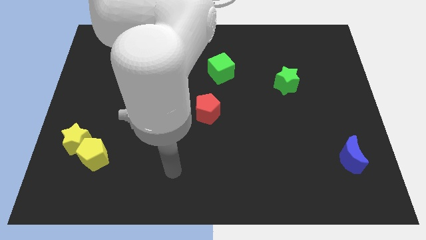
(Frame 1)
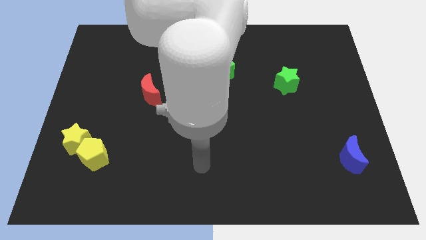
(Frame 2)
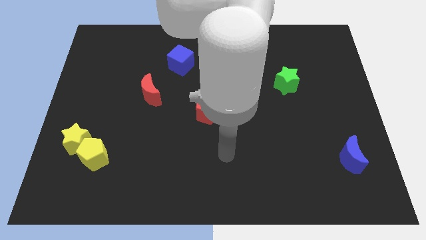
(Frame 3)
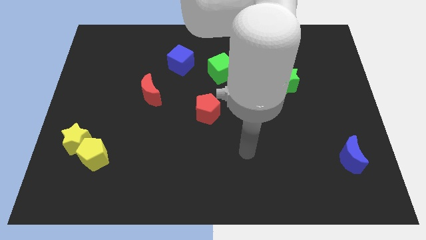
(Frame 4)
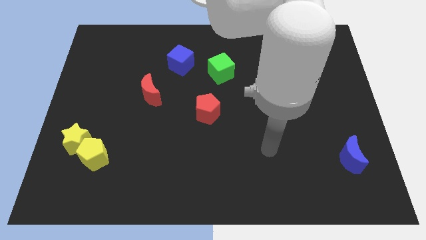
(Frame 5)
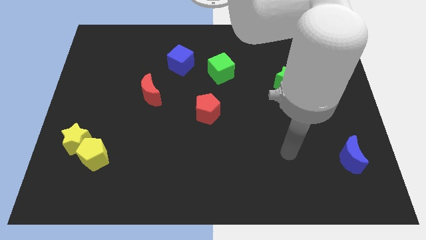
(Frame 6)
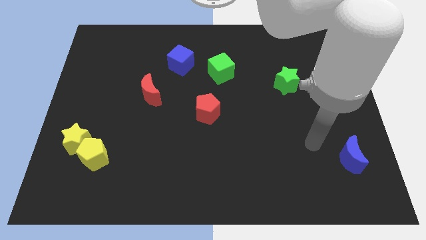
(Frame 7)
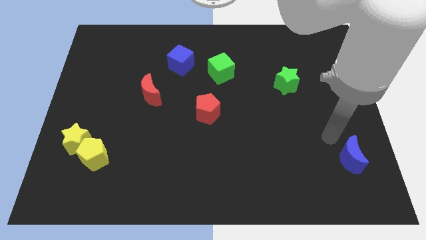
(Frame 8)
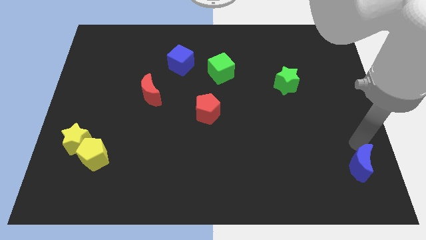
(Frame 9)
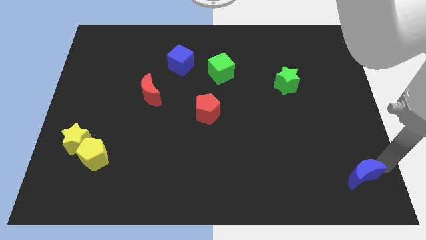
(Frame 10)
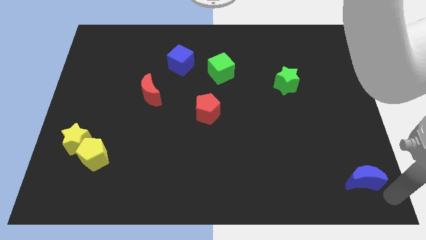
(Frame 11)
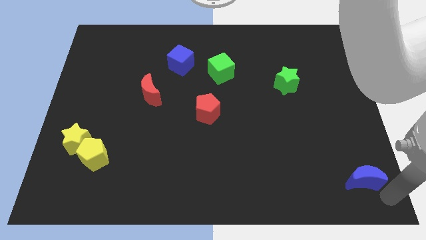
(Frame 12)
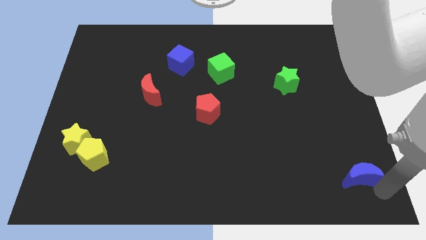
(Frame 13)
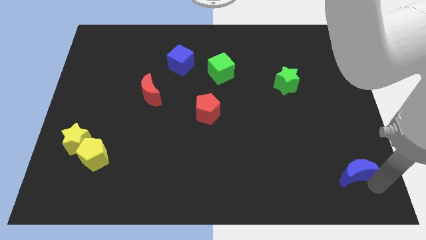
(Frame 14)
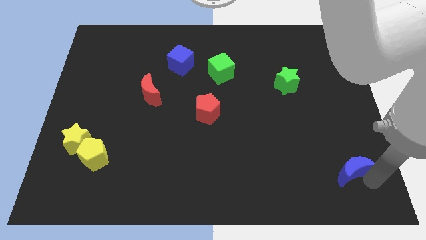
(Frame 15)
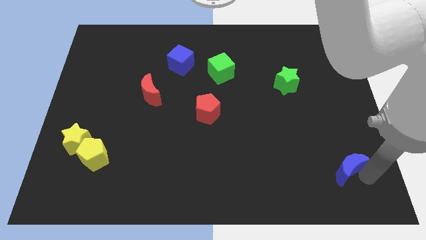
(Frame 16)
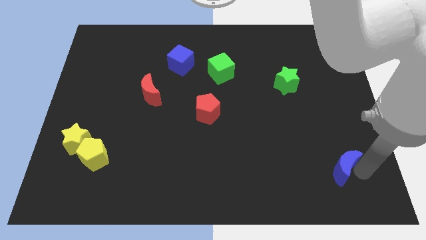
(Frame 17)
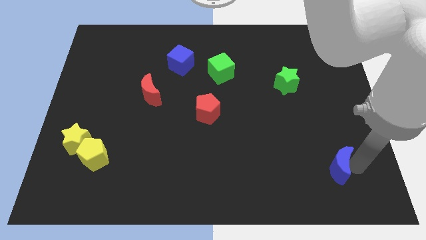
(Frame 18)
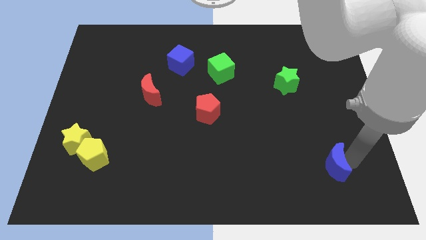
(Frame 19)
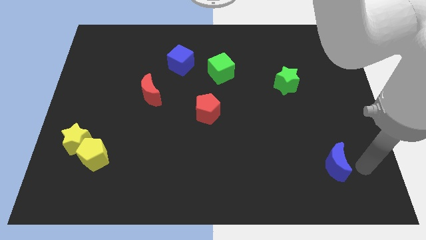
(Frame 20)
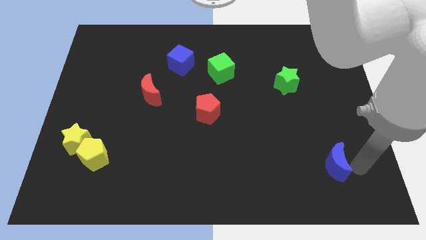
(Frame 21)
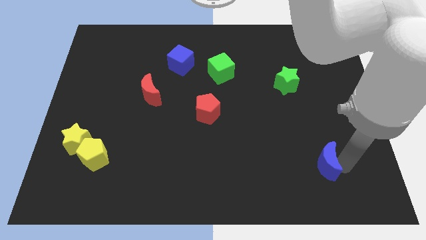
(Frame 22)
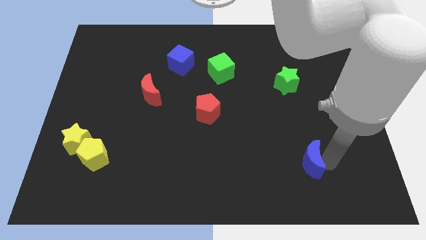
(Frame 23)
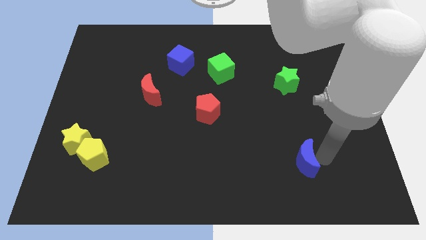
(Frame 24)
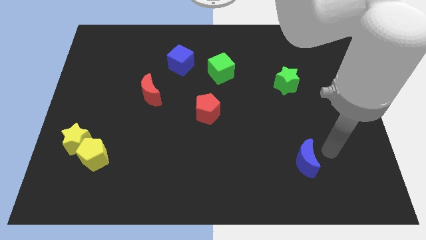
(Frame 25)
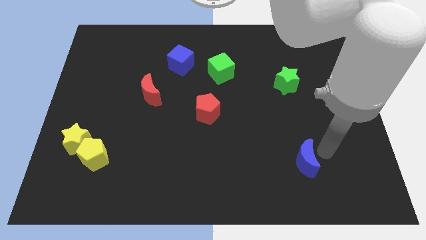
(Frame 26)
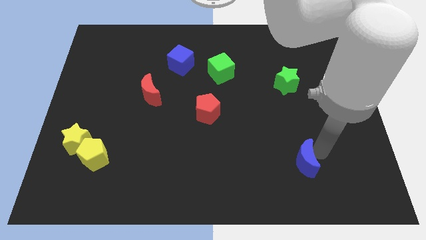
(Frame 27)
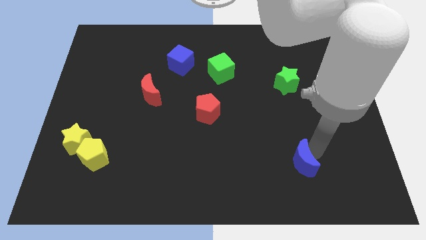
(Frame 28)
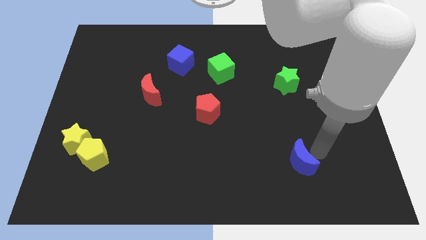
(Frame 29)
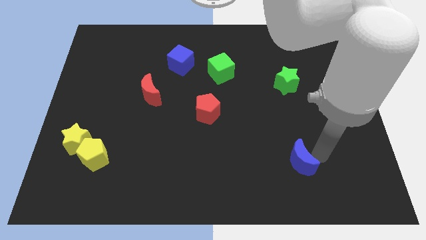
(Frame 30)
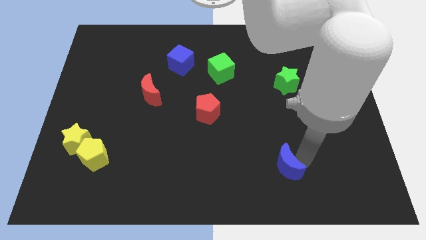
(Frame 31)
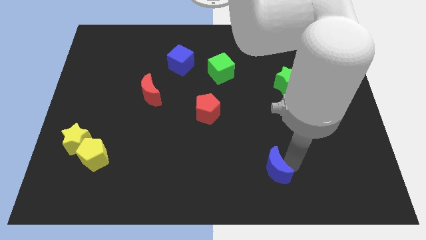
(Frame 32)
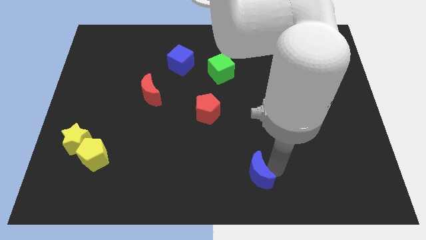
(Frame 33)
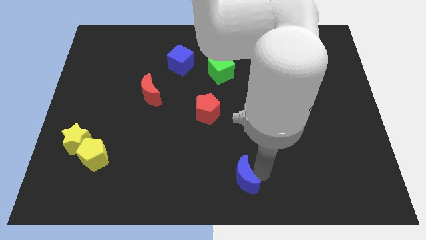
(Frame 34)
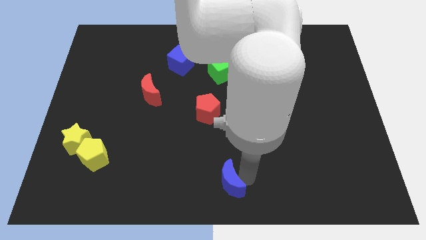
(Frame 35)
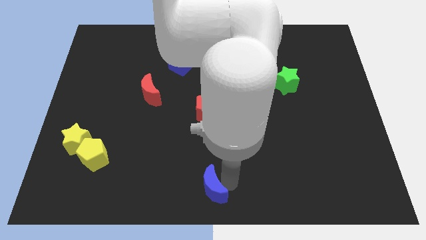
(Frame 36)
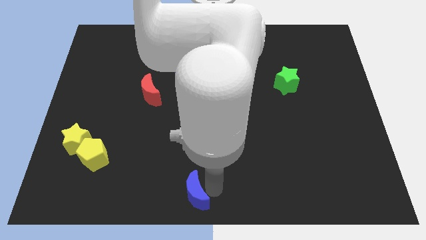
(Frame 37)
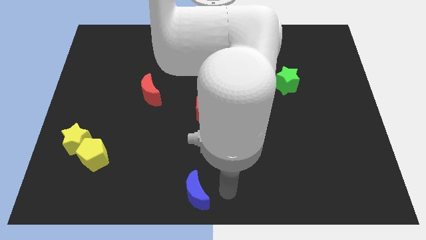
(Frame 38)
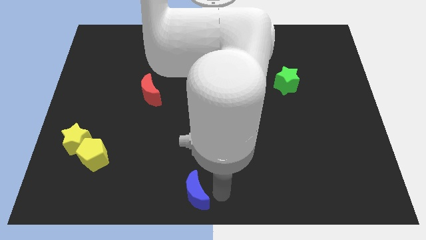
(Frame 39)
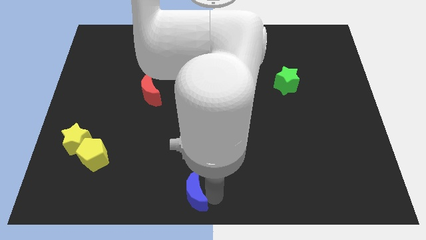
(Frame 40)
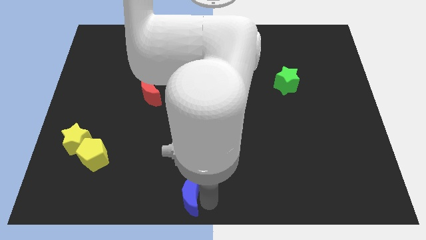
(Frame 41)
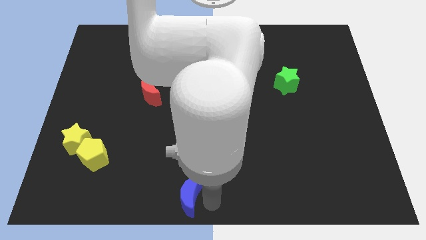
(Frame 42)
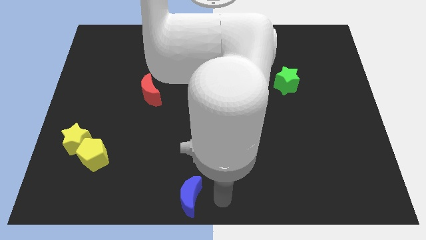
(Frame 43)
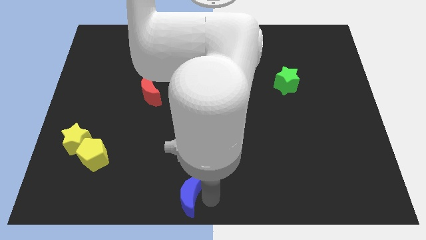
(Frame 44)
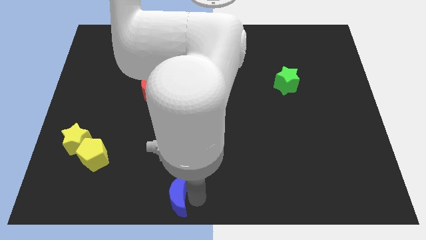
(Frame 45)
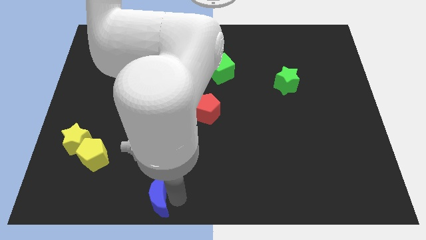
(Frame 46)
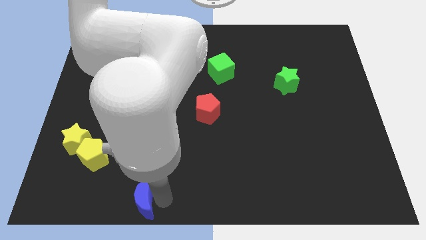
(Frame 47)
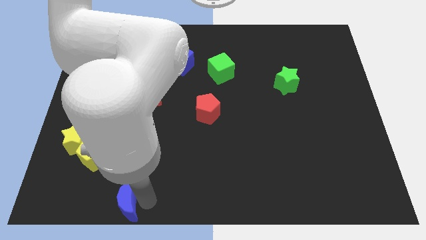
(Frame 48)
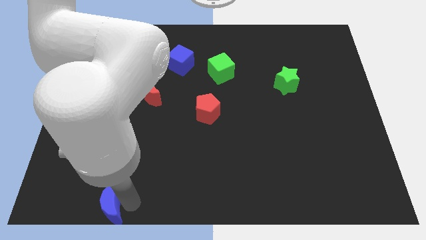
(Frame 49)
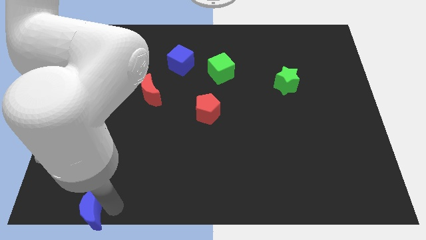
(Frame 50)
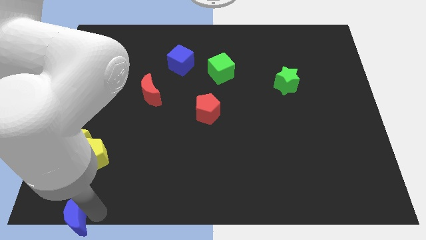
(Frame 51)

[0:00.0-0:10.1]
push the blue moon to the bottom left

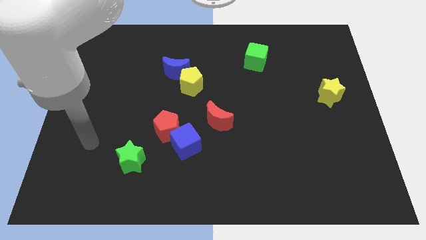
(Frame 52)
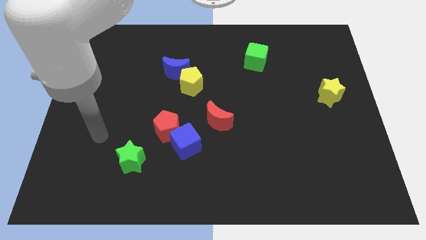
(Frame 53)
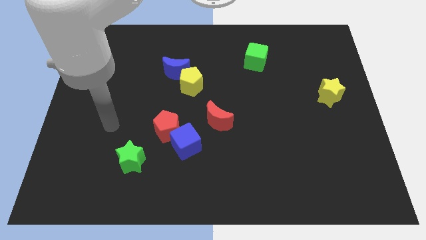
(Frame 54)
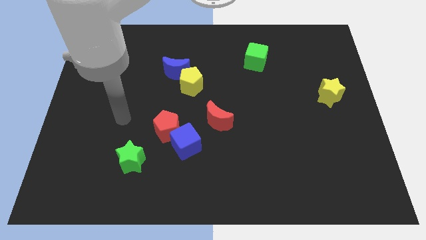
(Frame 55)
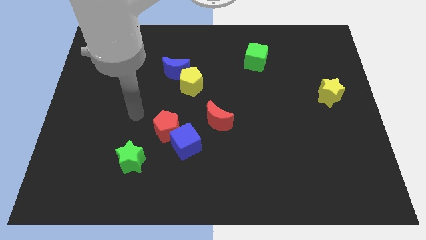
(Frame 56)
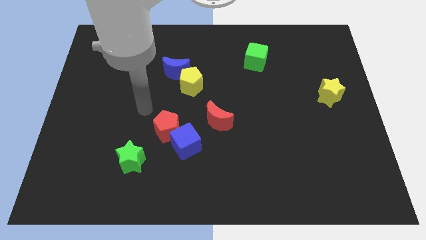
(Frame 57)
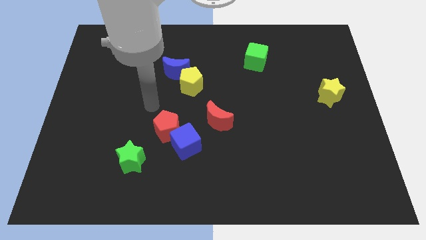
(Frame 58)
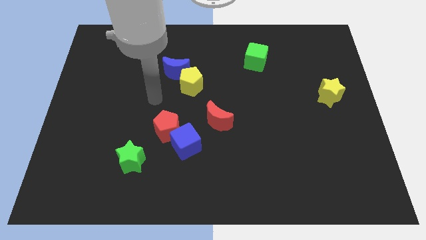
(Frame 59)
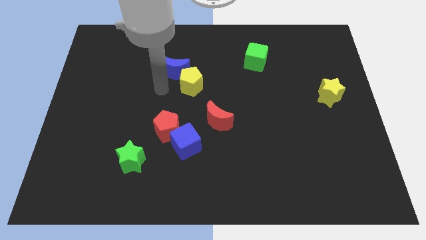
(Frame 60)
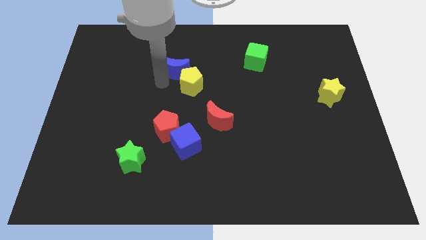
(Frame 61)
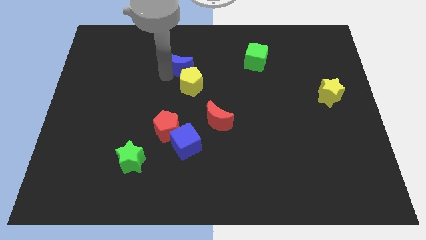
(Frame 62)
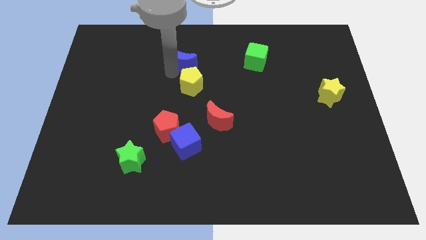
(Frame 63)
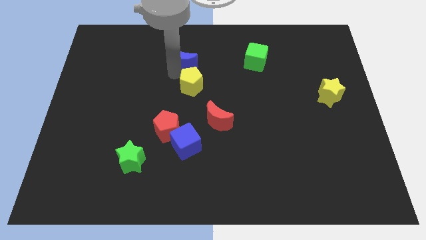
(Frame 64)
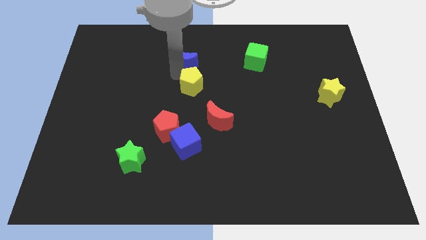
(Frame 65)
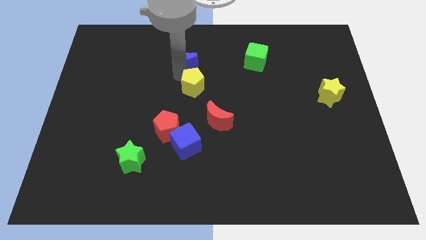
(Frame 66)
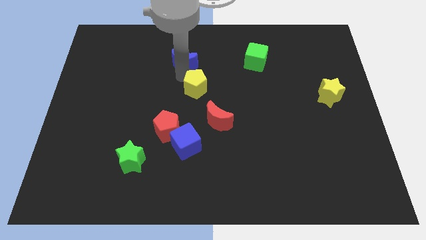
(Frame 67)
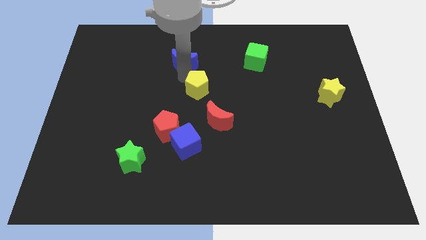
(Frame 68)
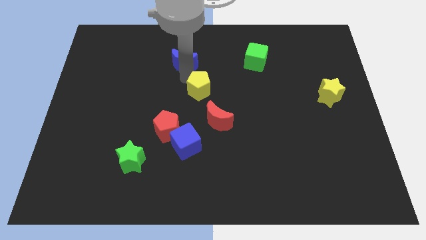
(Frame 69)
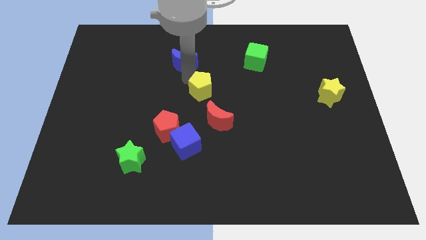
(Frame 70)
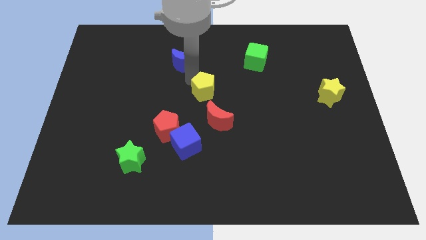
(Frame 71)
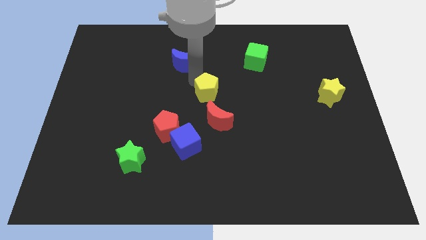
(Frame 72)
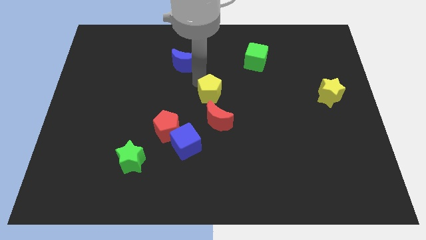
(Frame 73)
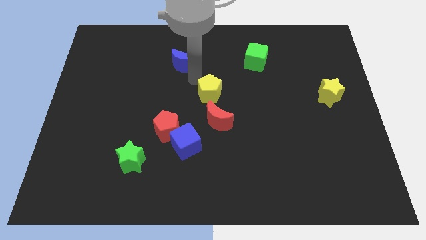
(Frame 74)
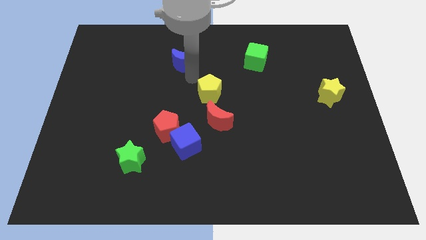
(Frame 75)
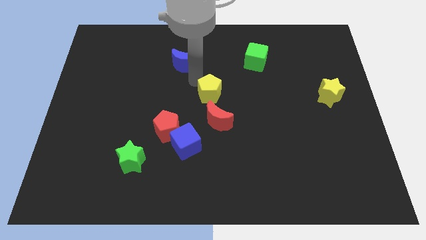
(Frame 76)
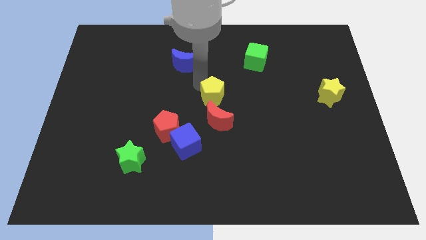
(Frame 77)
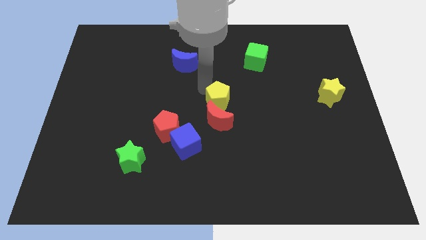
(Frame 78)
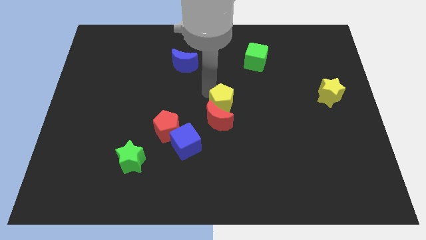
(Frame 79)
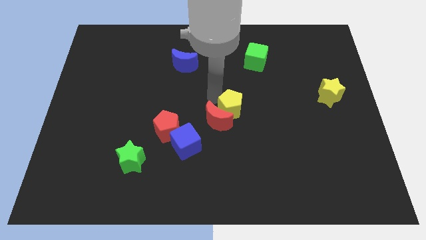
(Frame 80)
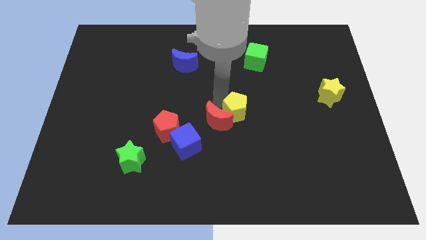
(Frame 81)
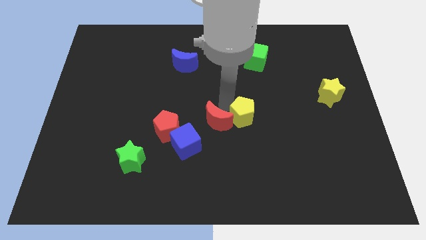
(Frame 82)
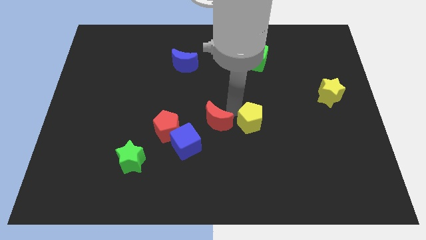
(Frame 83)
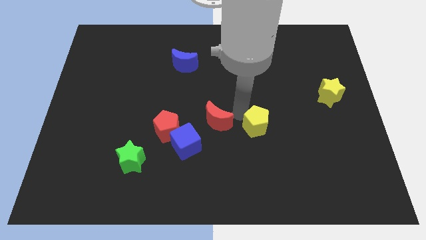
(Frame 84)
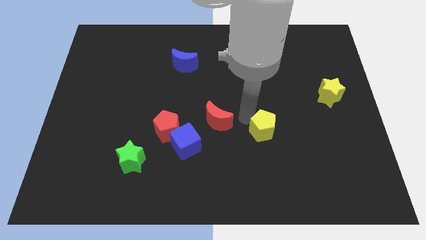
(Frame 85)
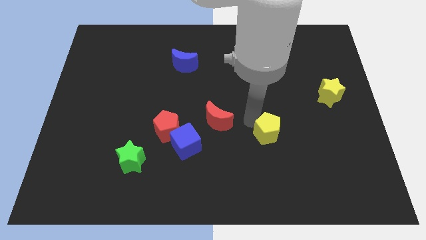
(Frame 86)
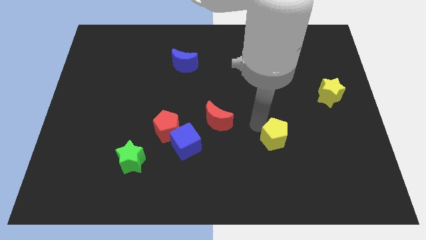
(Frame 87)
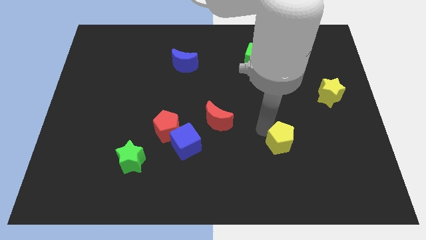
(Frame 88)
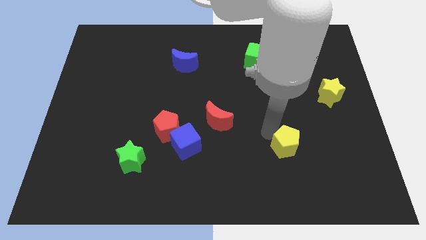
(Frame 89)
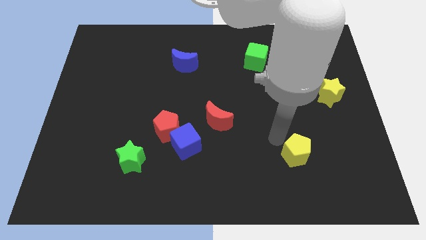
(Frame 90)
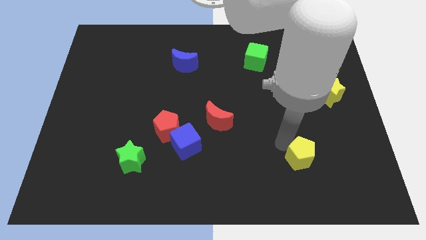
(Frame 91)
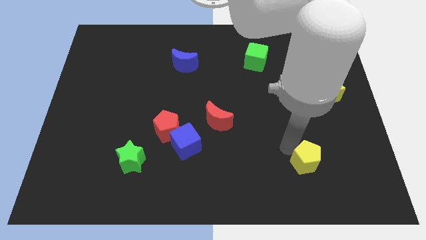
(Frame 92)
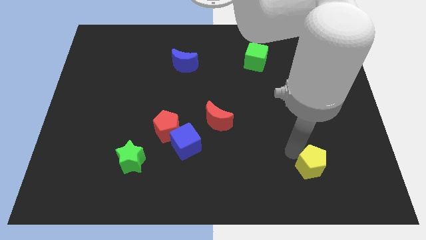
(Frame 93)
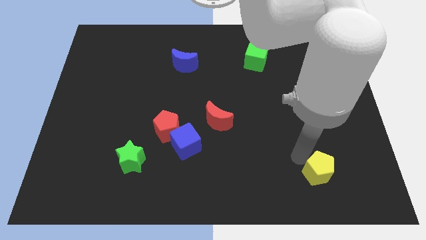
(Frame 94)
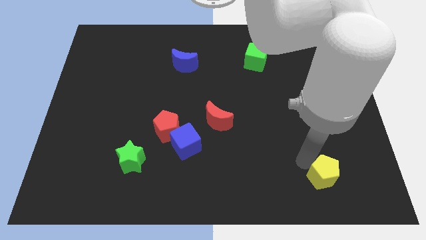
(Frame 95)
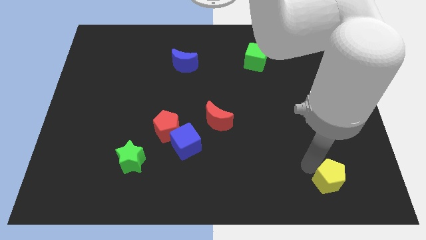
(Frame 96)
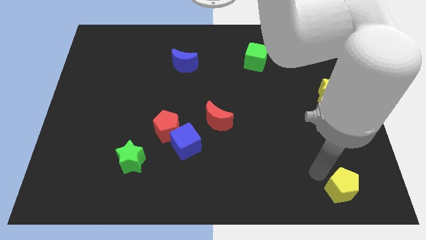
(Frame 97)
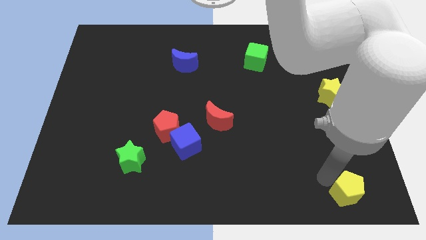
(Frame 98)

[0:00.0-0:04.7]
push the yellow pentagon to the lower right corner
